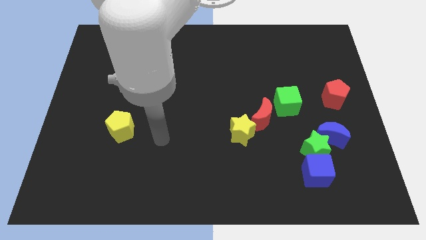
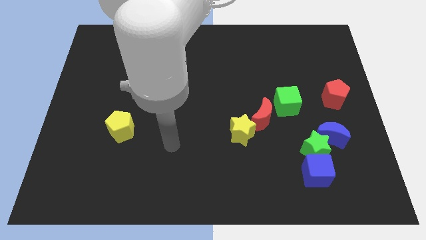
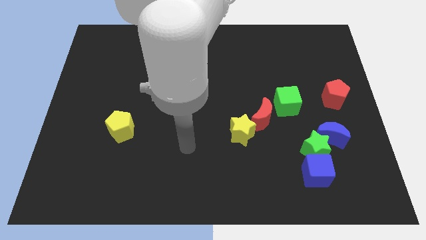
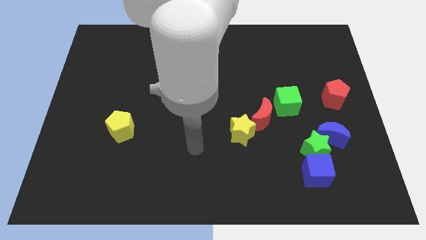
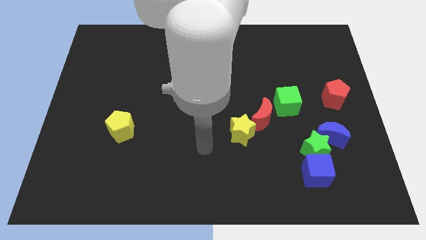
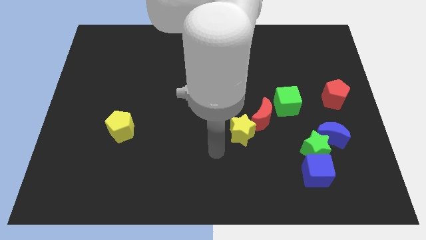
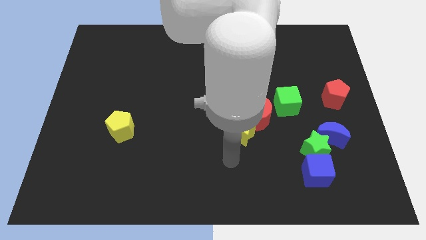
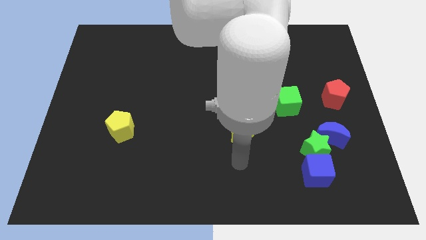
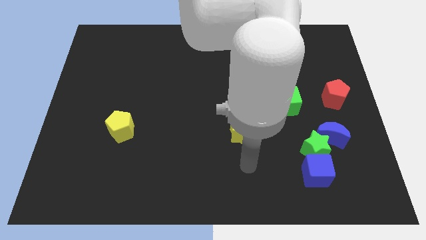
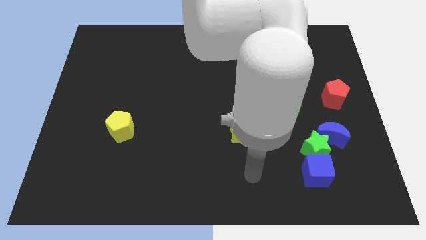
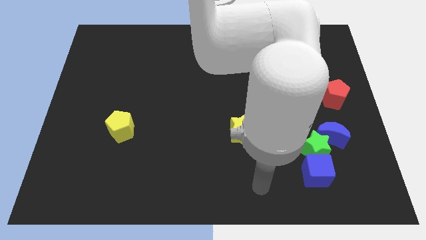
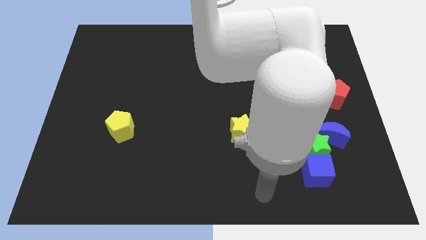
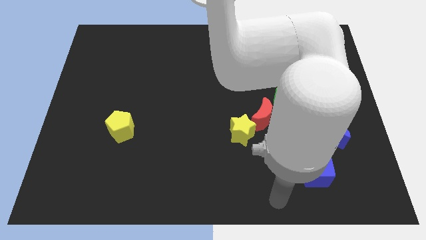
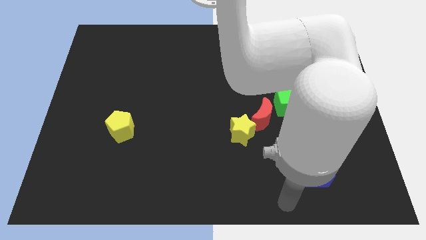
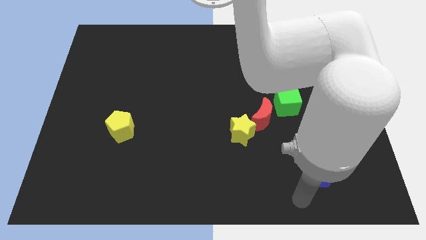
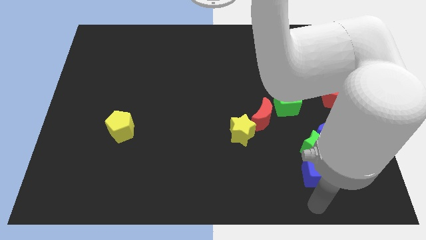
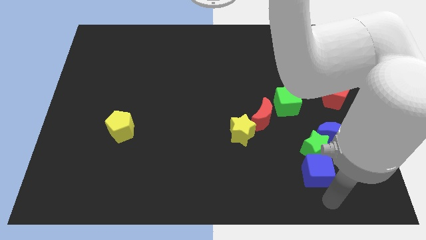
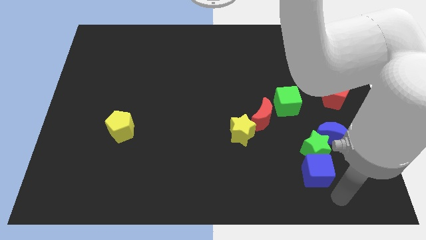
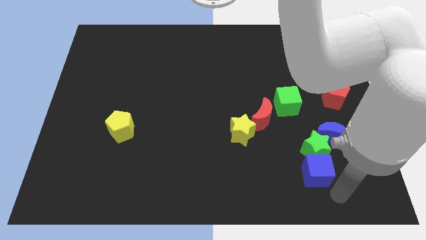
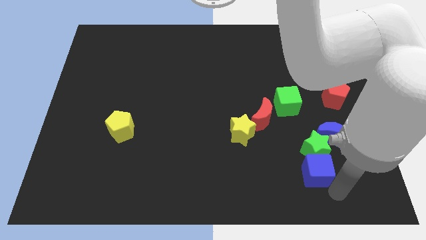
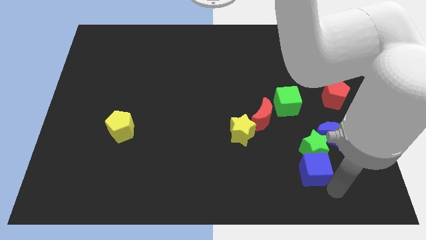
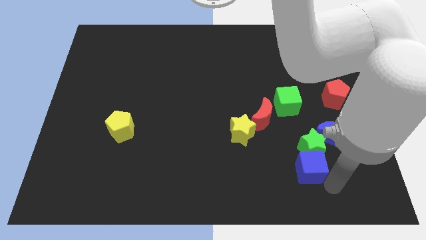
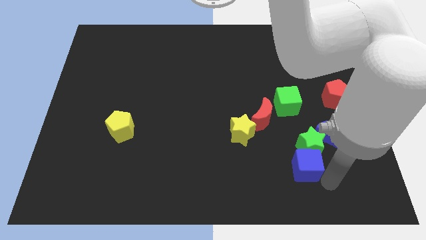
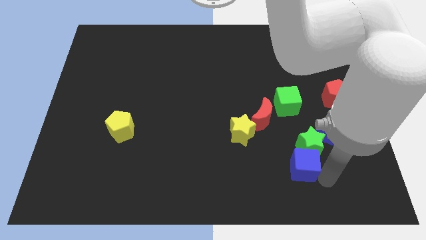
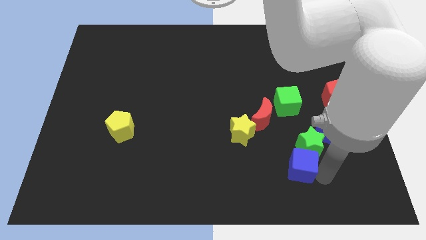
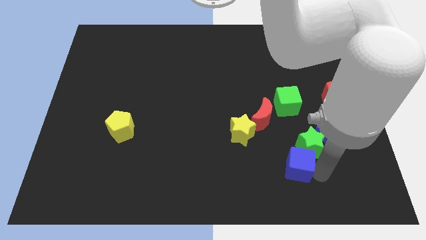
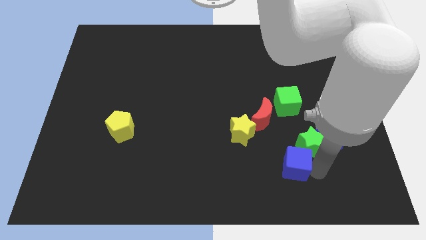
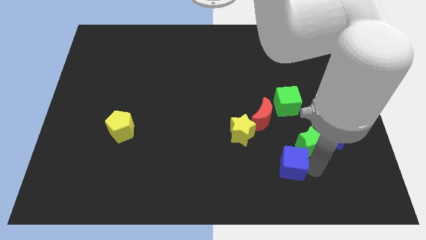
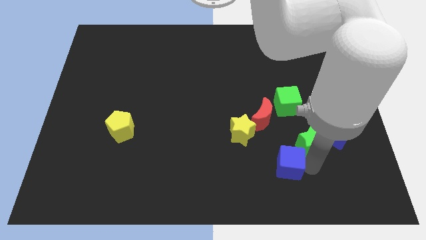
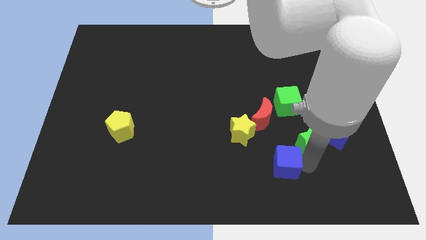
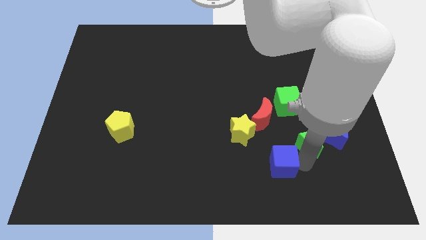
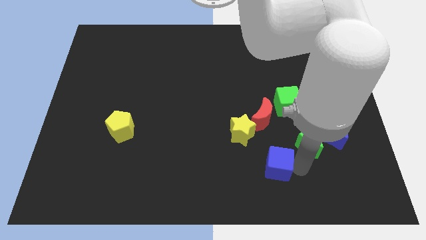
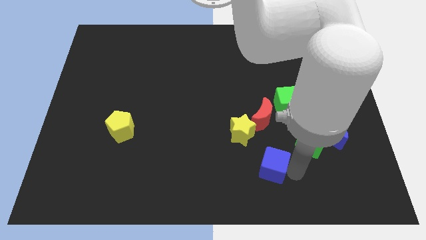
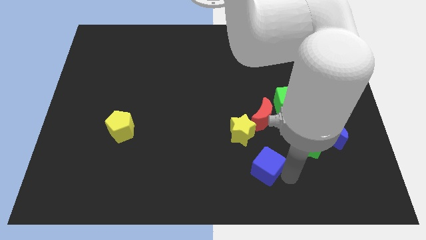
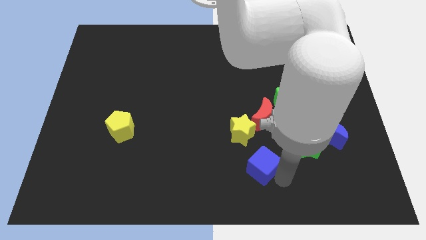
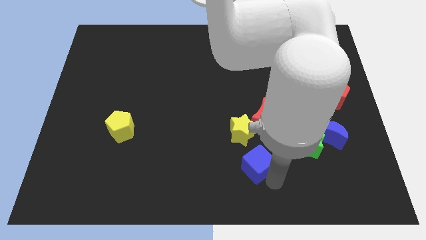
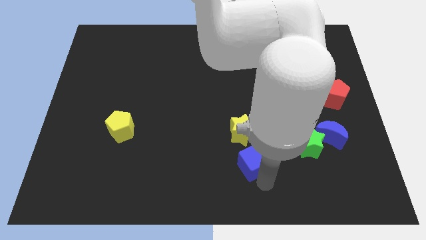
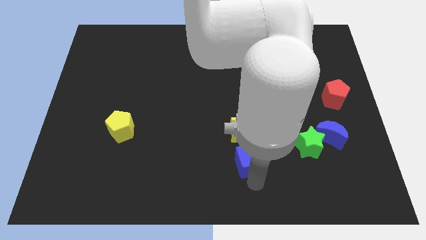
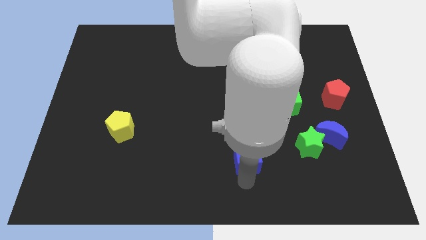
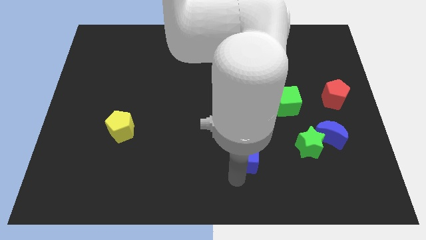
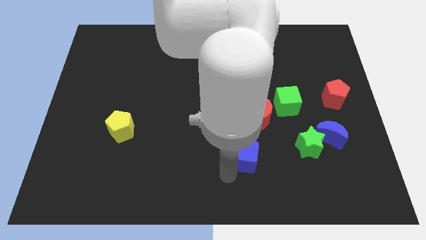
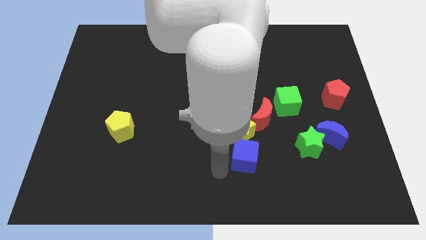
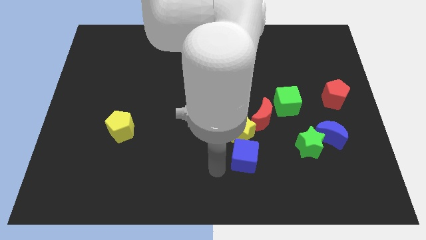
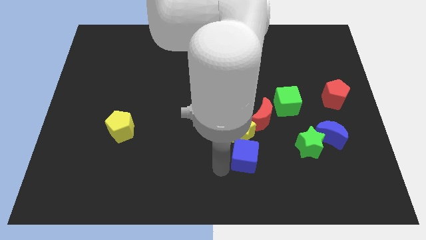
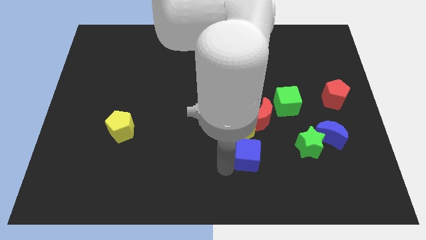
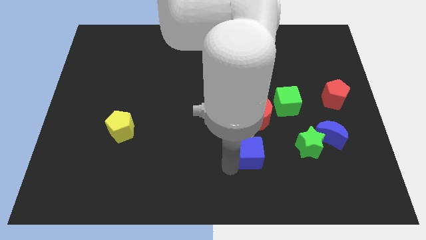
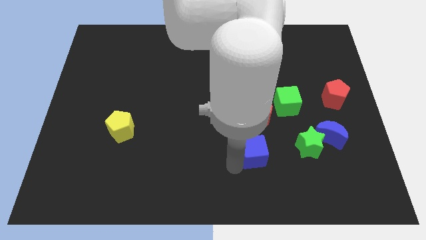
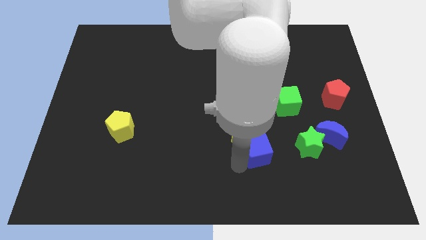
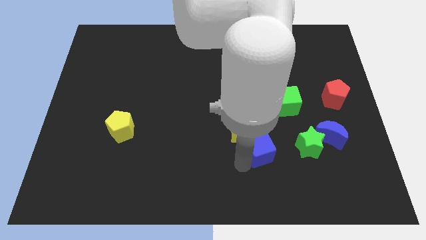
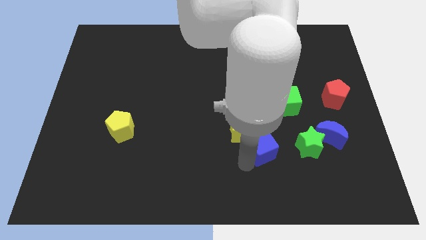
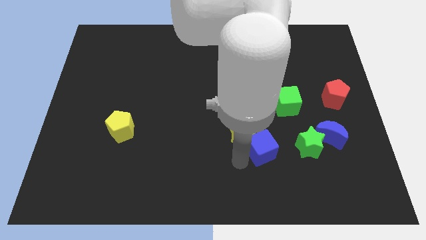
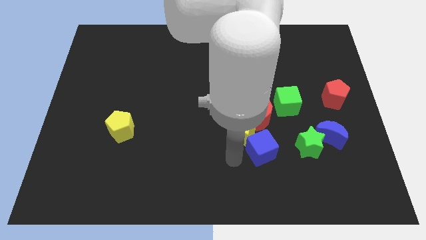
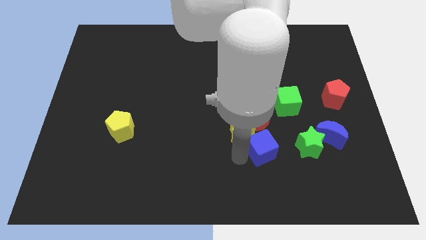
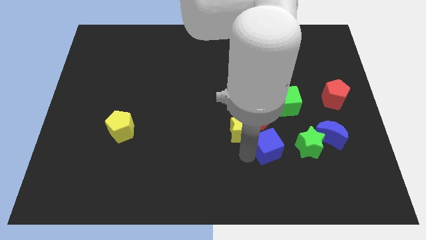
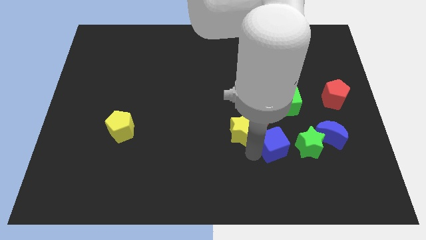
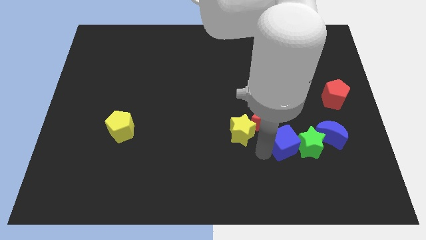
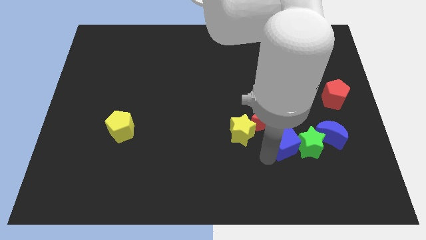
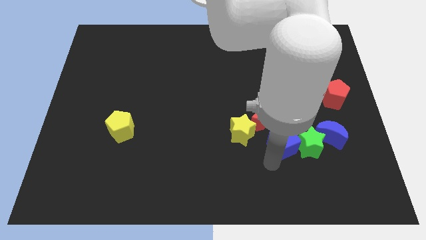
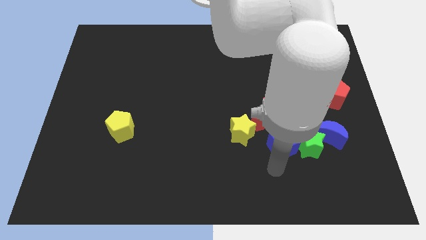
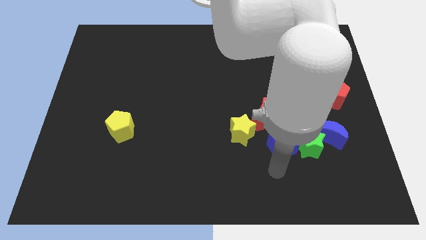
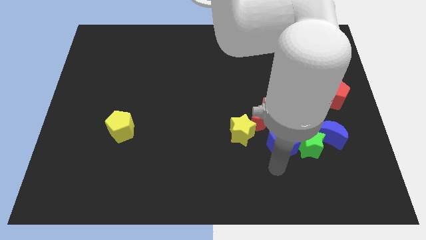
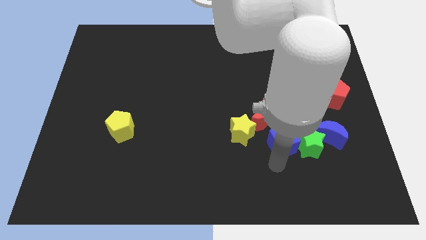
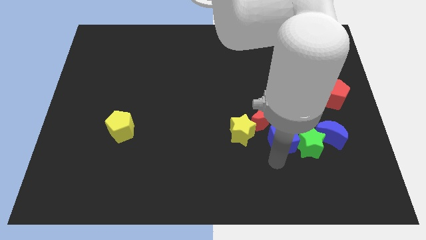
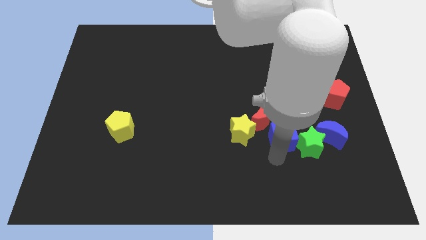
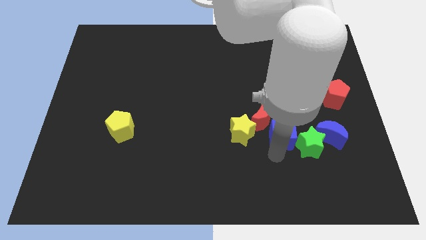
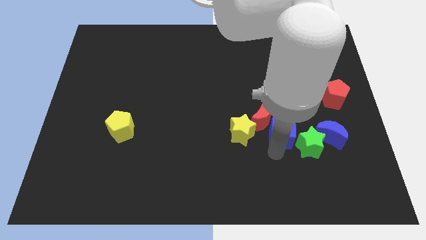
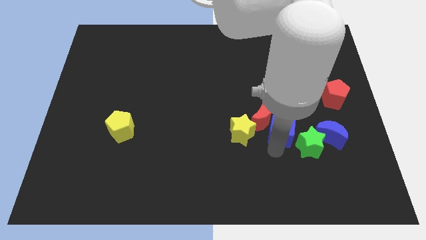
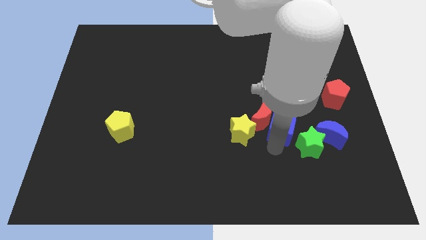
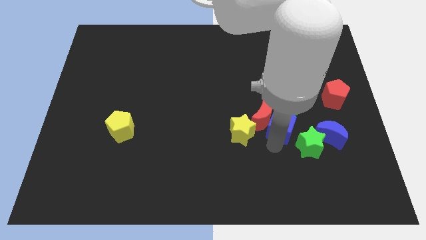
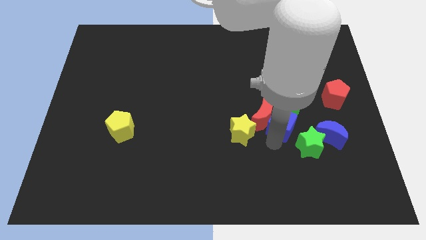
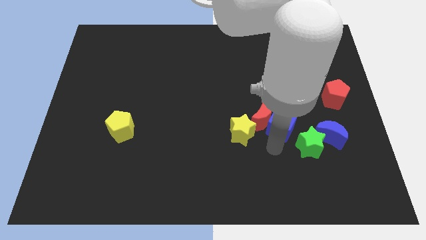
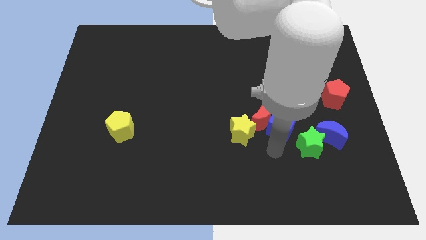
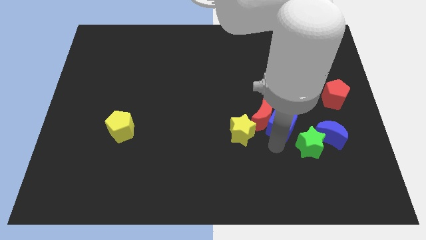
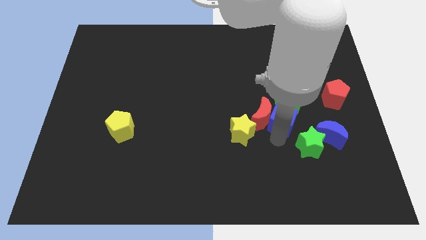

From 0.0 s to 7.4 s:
slide the blue cube next to the green cube
